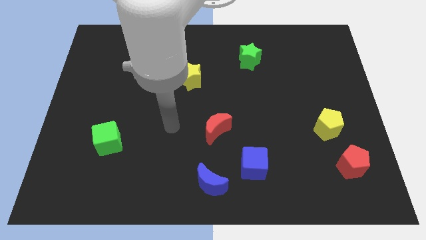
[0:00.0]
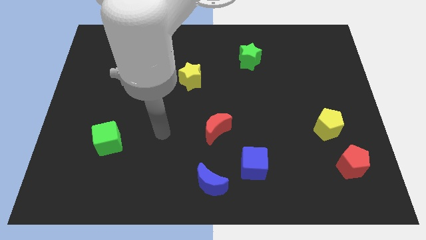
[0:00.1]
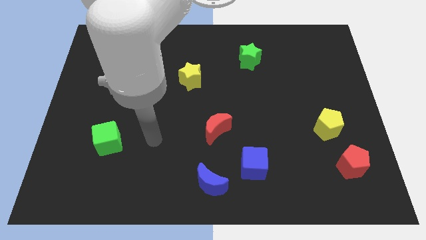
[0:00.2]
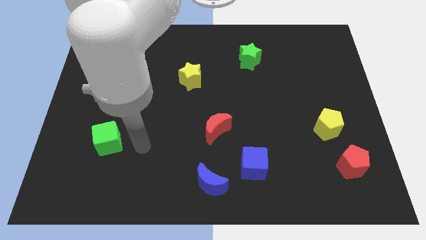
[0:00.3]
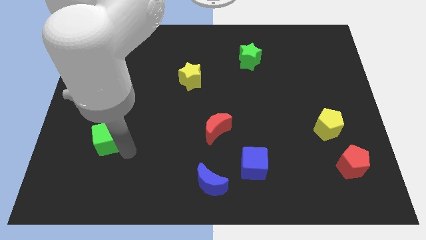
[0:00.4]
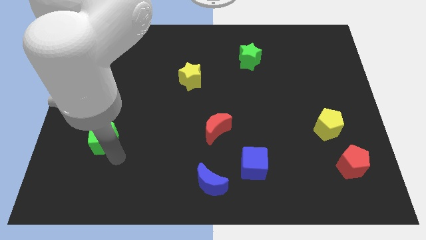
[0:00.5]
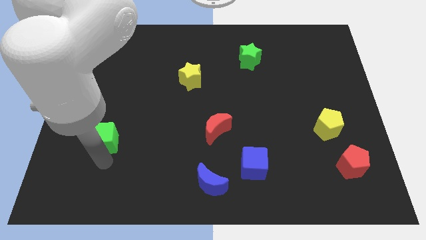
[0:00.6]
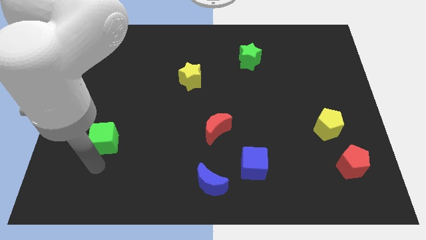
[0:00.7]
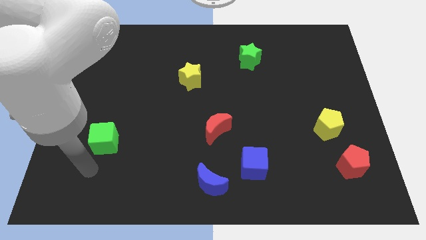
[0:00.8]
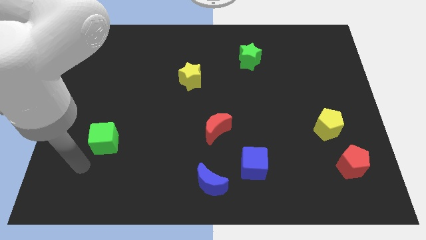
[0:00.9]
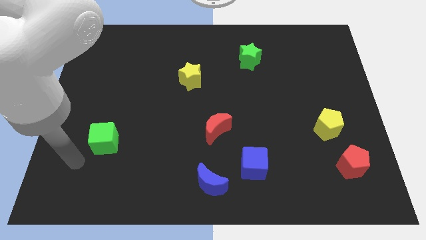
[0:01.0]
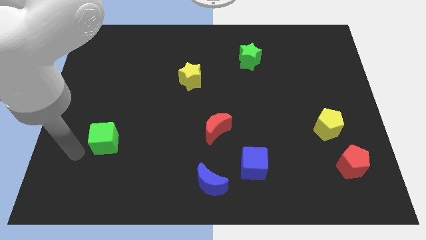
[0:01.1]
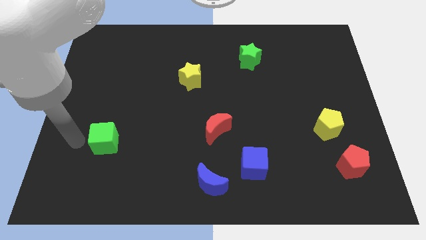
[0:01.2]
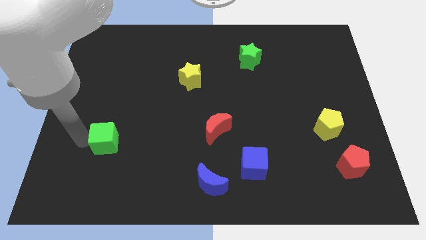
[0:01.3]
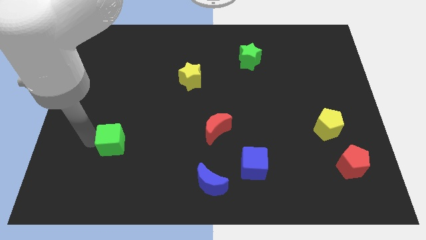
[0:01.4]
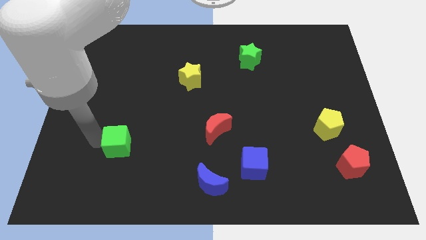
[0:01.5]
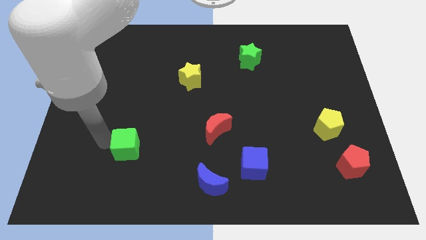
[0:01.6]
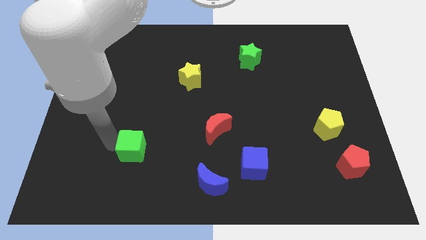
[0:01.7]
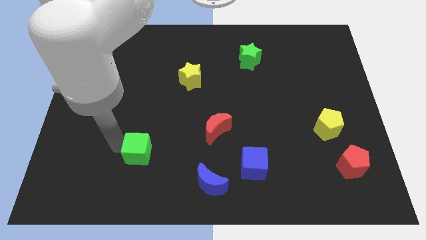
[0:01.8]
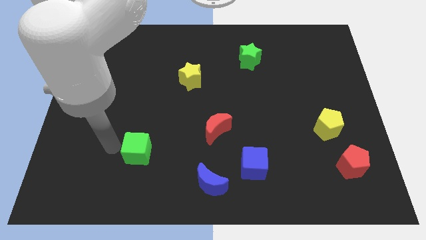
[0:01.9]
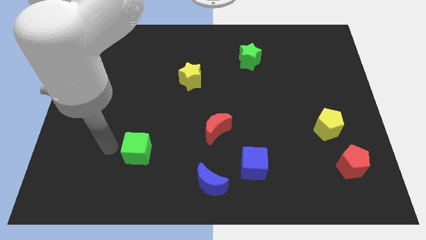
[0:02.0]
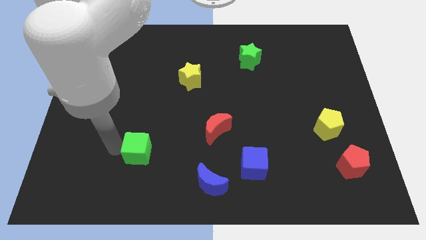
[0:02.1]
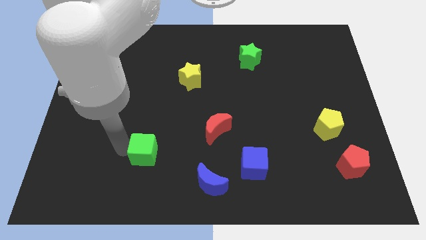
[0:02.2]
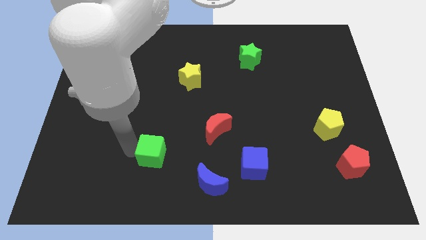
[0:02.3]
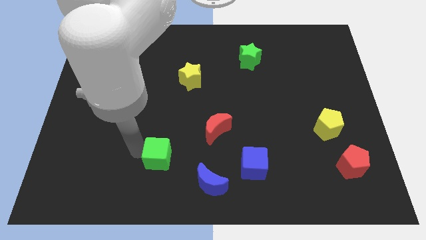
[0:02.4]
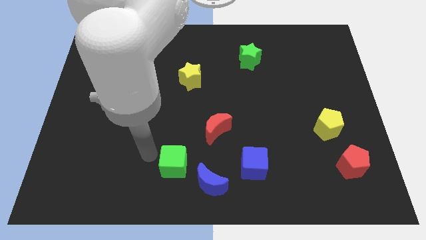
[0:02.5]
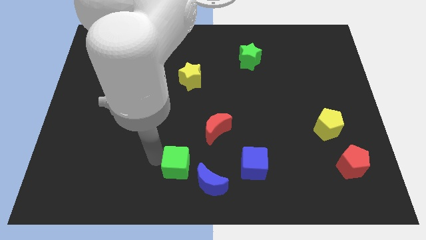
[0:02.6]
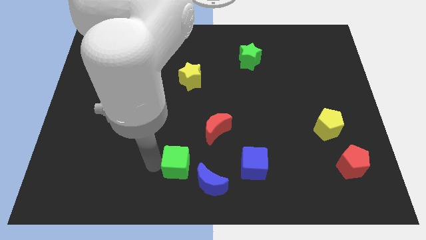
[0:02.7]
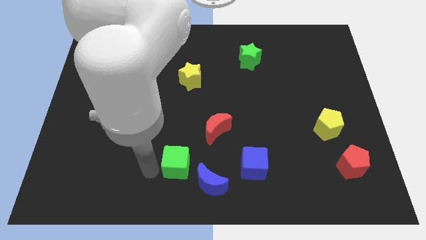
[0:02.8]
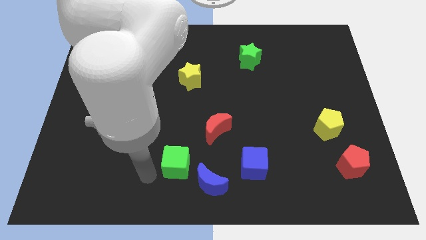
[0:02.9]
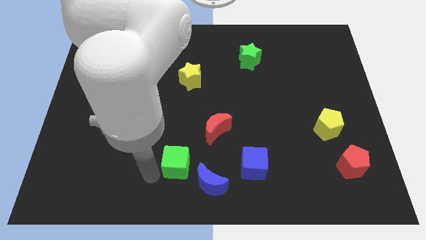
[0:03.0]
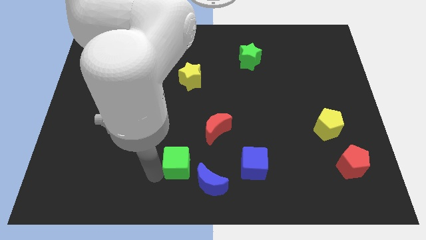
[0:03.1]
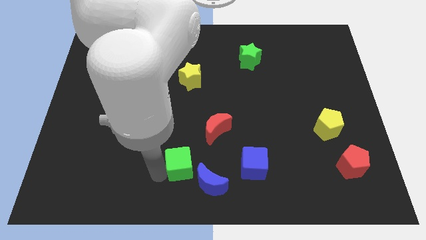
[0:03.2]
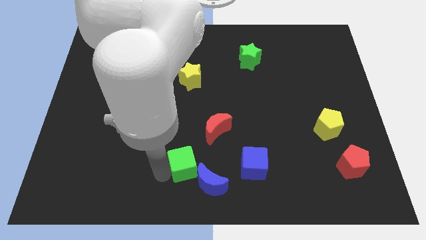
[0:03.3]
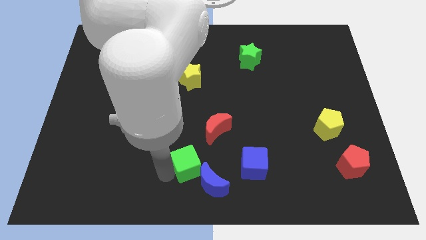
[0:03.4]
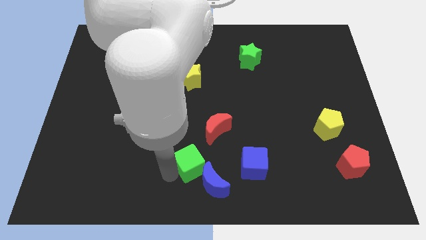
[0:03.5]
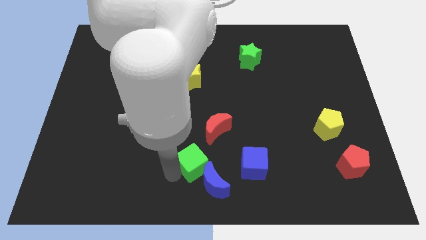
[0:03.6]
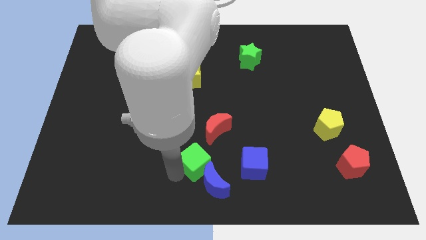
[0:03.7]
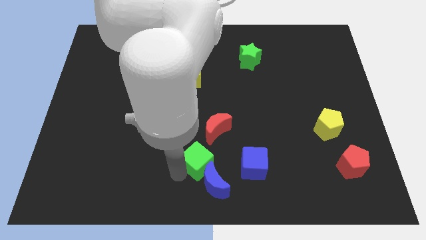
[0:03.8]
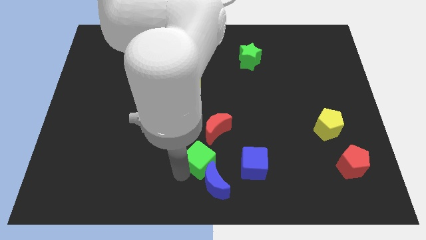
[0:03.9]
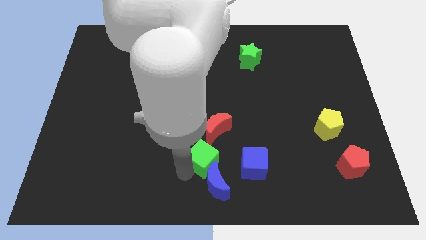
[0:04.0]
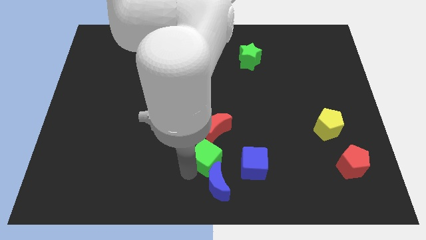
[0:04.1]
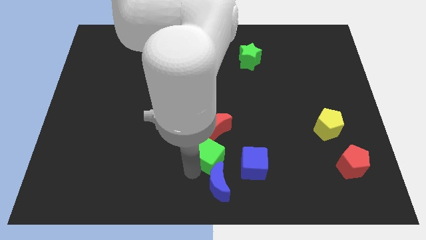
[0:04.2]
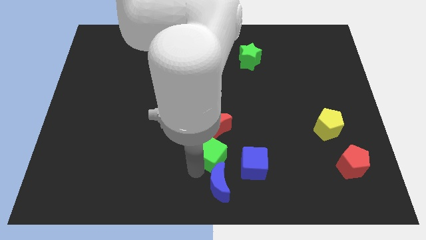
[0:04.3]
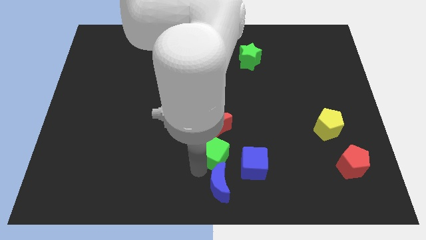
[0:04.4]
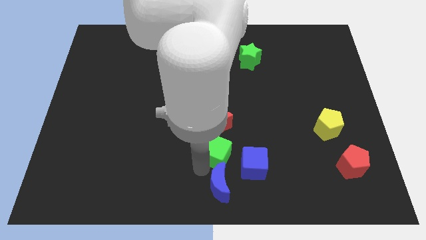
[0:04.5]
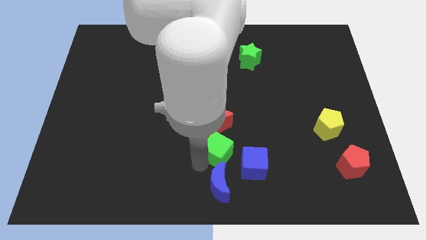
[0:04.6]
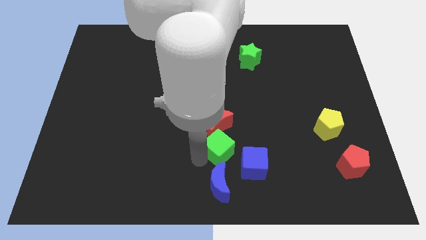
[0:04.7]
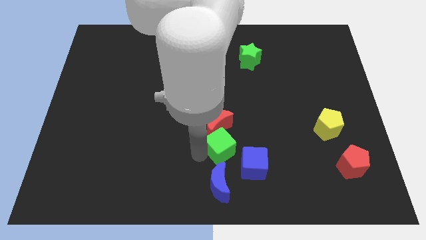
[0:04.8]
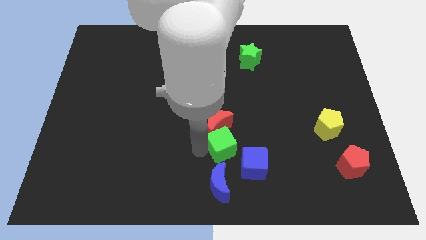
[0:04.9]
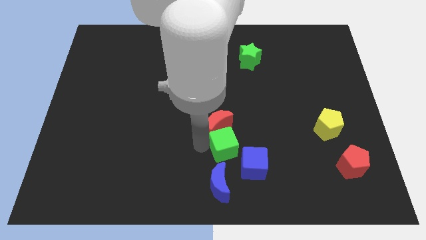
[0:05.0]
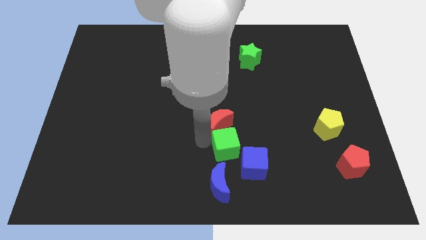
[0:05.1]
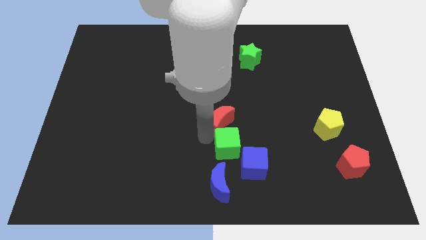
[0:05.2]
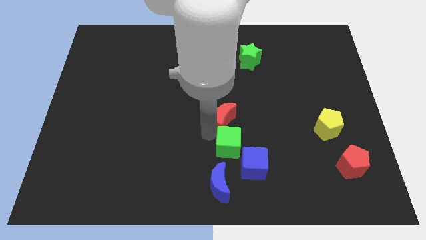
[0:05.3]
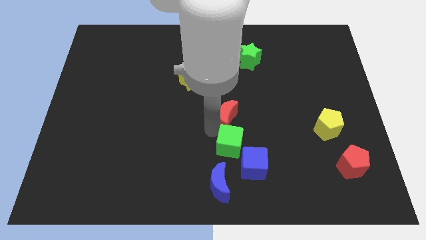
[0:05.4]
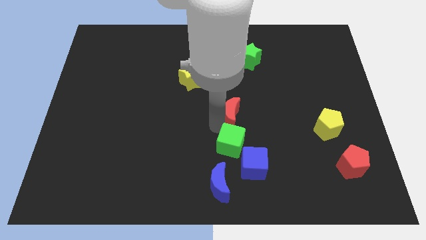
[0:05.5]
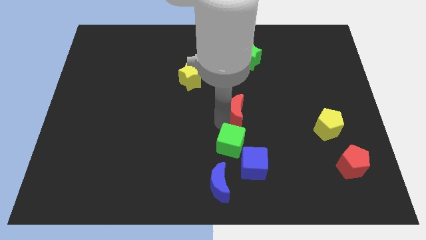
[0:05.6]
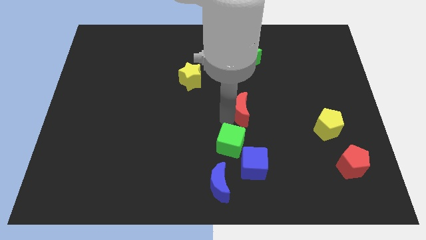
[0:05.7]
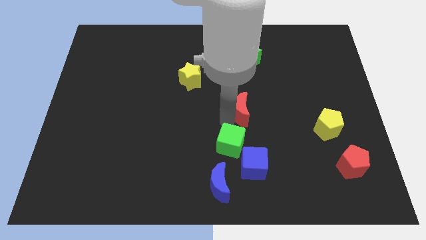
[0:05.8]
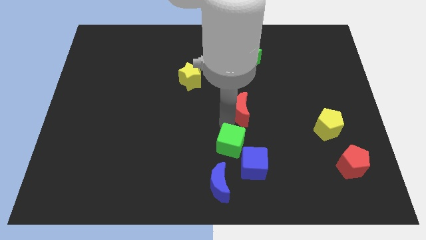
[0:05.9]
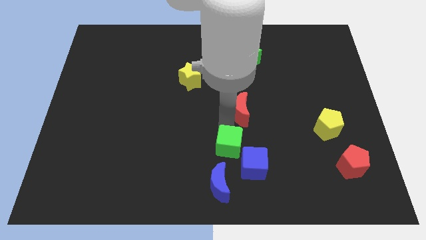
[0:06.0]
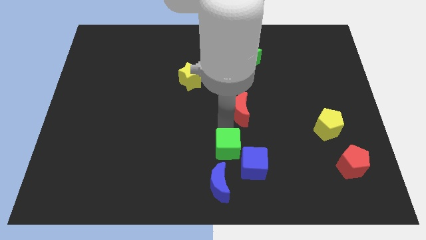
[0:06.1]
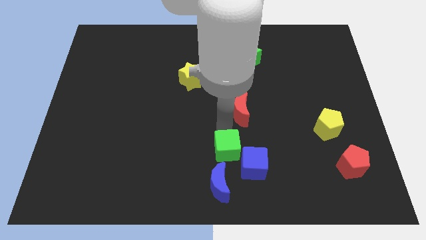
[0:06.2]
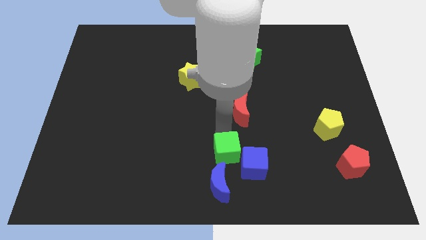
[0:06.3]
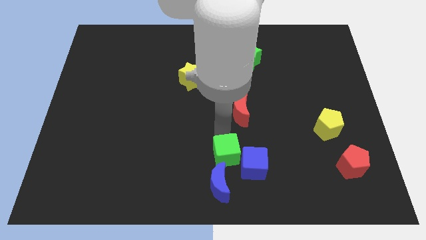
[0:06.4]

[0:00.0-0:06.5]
put the green cube close to the blue cube

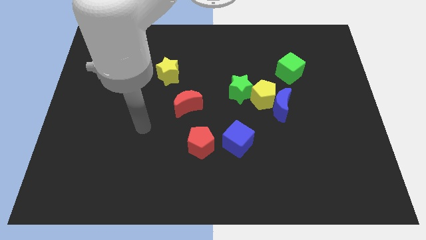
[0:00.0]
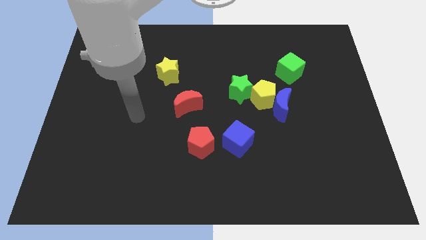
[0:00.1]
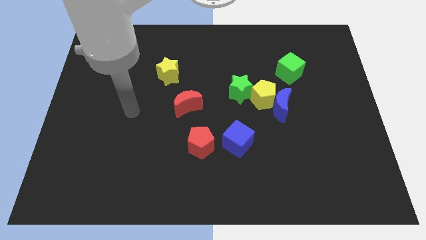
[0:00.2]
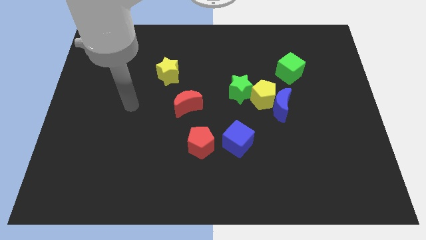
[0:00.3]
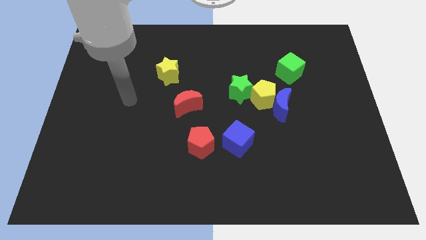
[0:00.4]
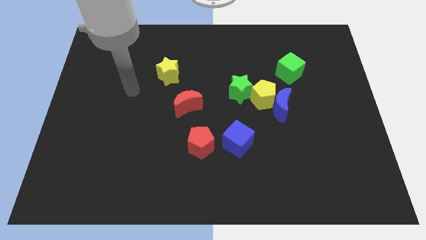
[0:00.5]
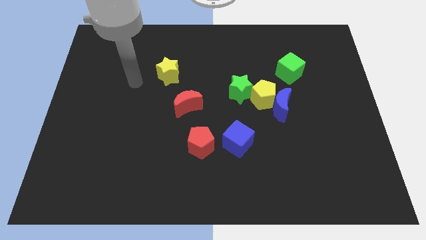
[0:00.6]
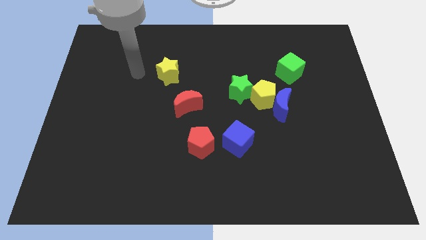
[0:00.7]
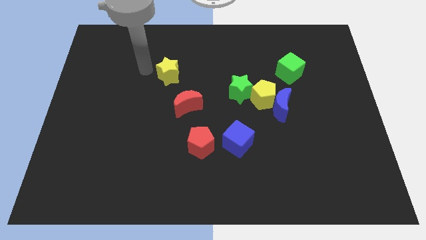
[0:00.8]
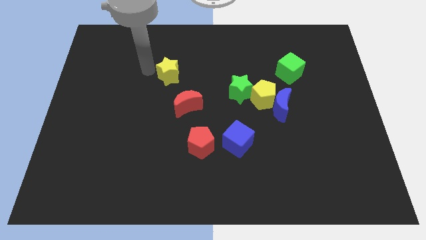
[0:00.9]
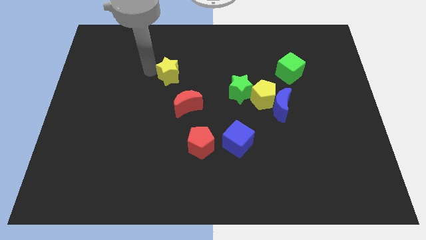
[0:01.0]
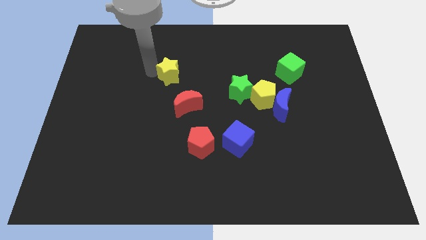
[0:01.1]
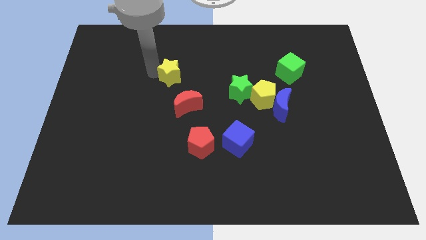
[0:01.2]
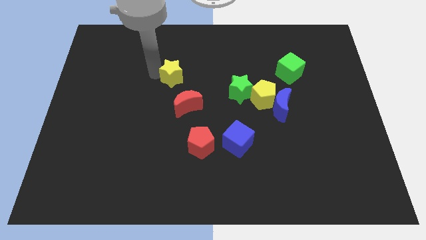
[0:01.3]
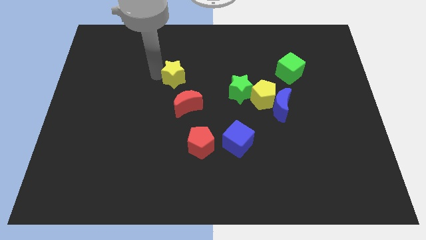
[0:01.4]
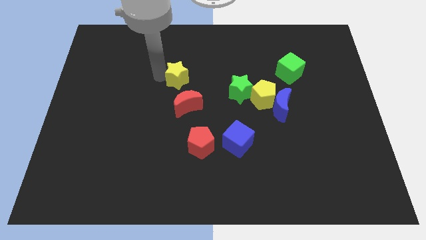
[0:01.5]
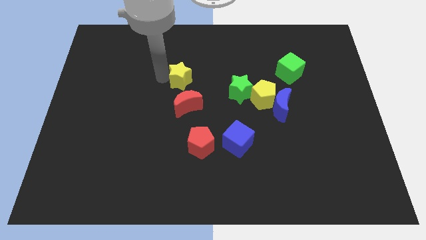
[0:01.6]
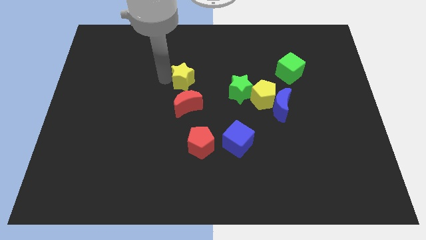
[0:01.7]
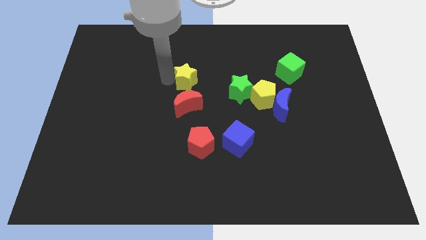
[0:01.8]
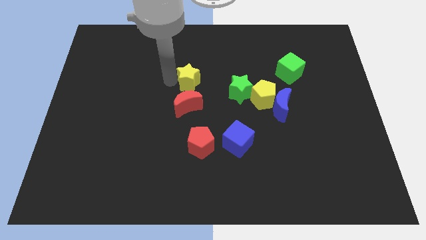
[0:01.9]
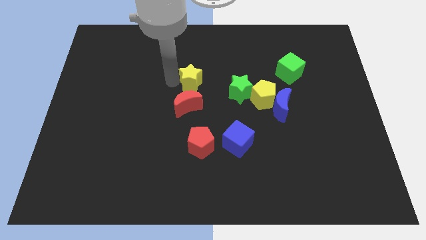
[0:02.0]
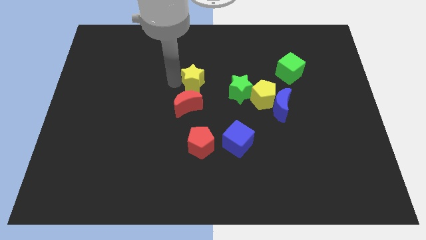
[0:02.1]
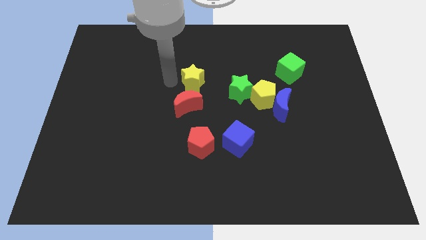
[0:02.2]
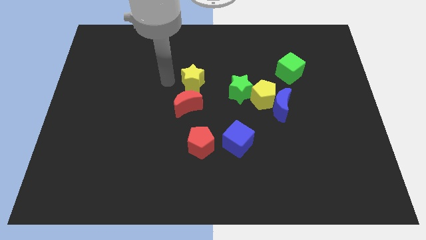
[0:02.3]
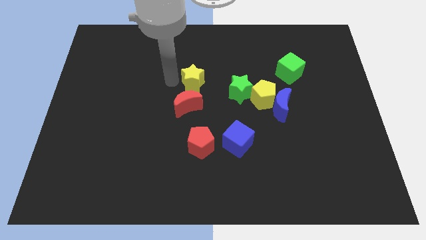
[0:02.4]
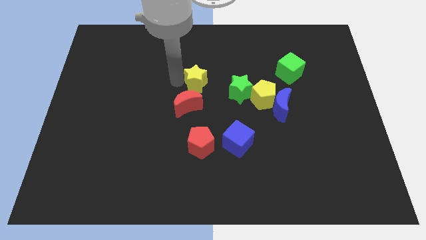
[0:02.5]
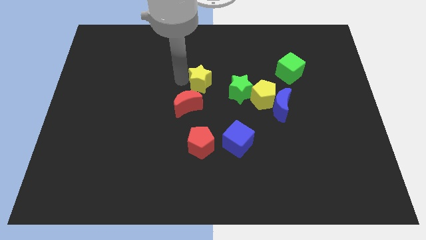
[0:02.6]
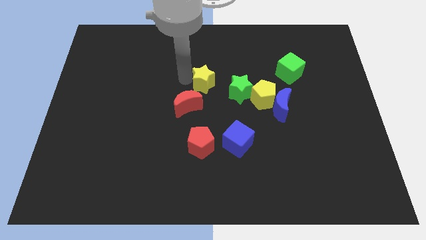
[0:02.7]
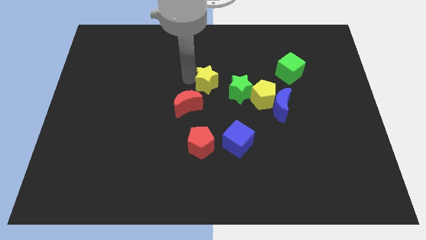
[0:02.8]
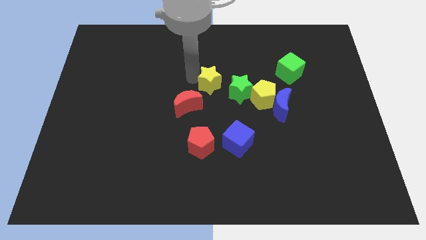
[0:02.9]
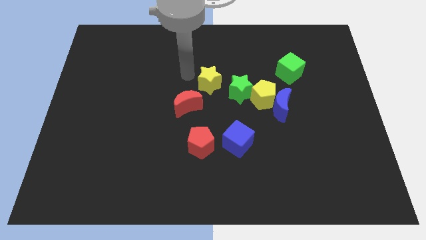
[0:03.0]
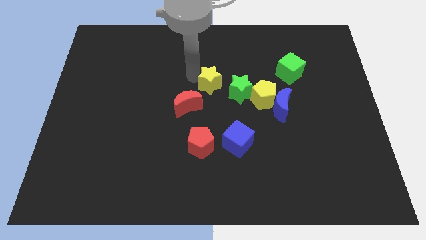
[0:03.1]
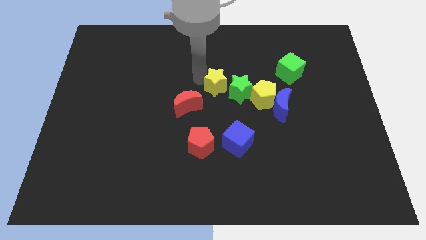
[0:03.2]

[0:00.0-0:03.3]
slide the yellow star close to the green star
